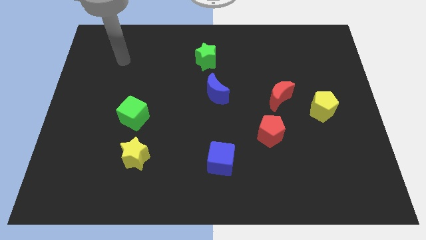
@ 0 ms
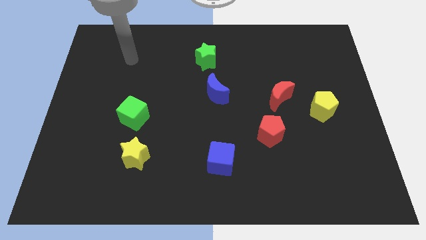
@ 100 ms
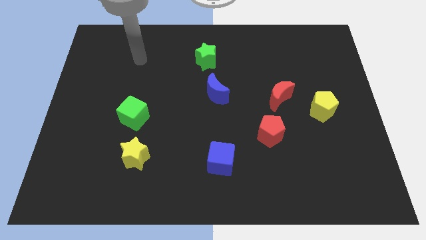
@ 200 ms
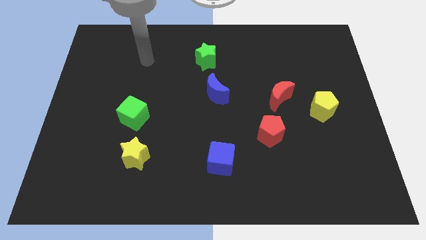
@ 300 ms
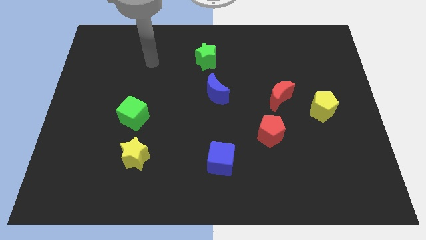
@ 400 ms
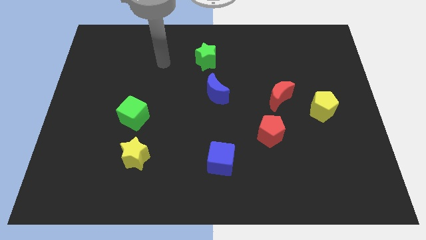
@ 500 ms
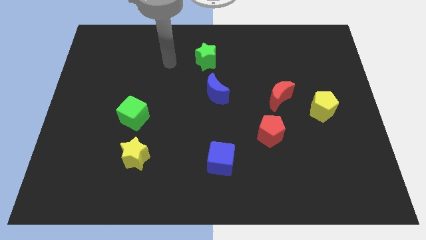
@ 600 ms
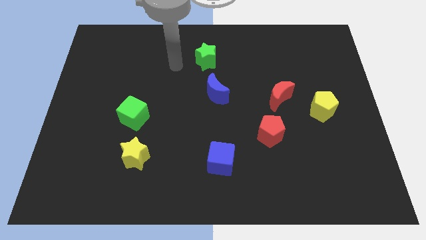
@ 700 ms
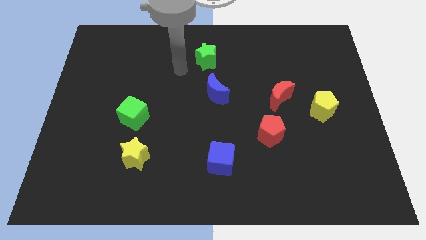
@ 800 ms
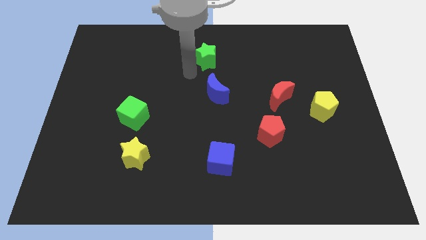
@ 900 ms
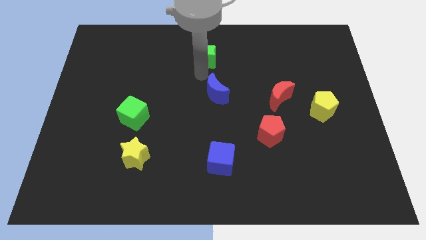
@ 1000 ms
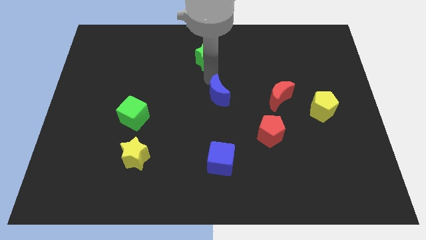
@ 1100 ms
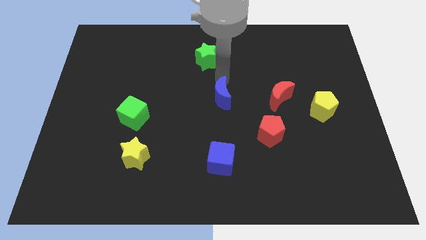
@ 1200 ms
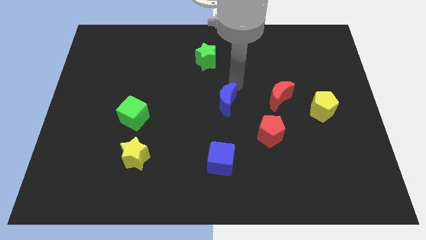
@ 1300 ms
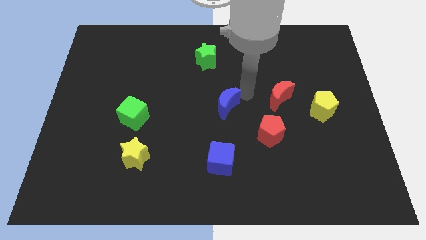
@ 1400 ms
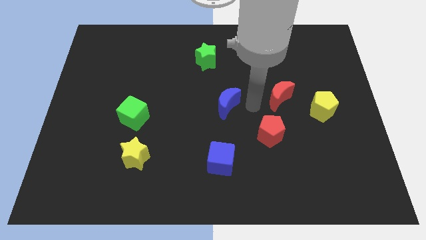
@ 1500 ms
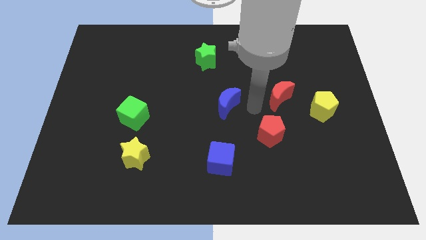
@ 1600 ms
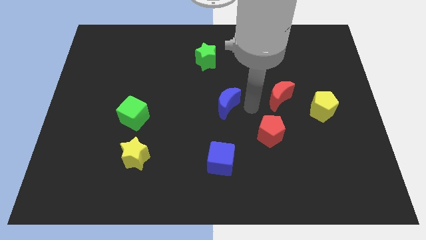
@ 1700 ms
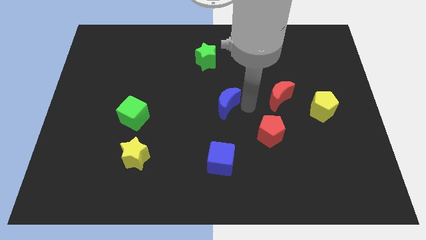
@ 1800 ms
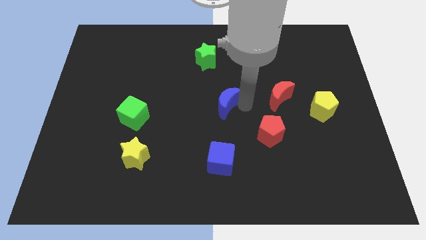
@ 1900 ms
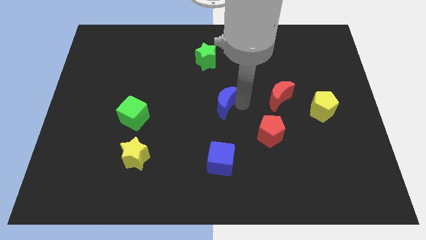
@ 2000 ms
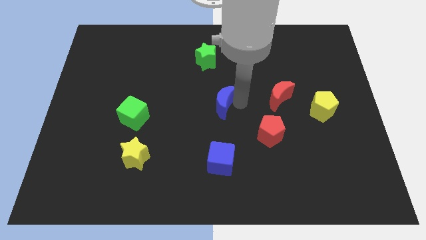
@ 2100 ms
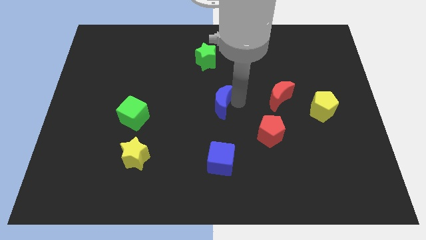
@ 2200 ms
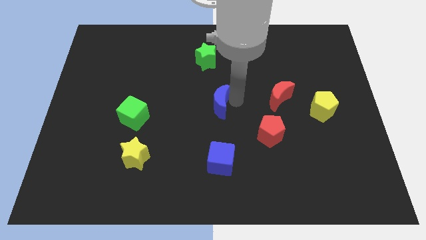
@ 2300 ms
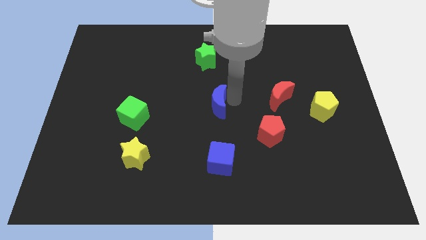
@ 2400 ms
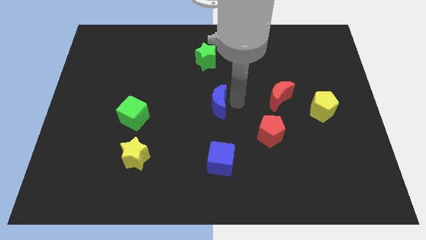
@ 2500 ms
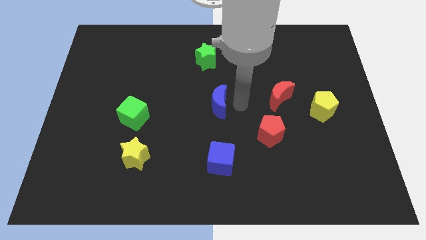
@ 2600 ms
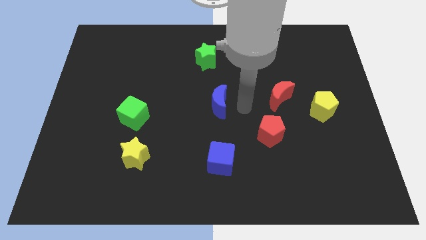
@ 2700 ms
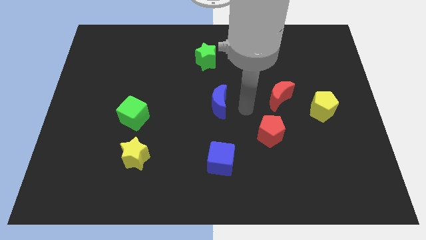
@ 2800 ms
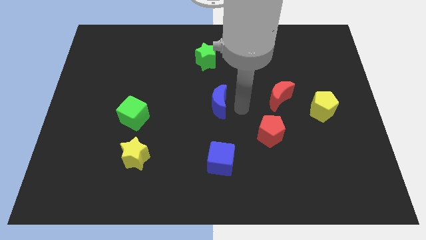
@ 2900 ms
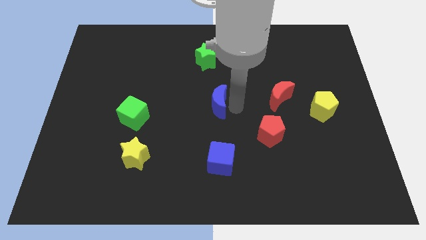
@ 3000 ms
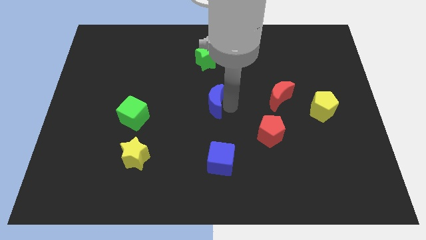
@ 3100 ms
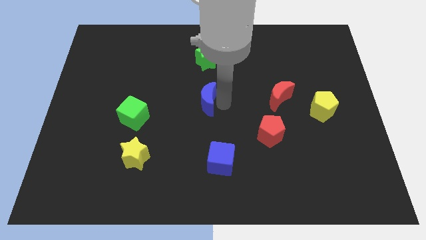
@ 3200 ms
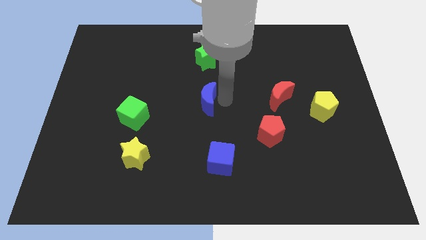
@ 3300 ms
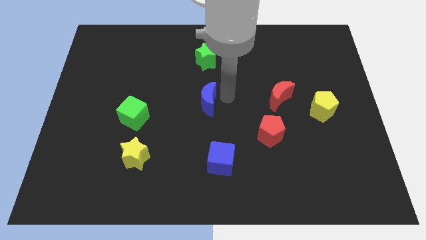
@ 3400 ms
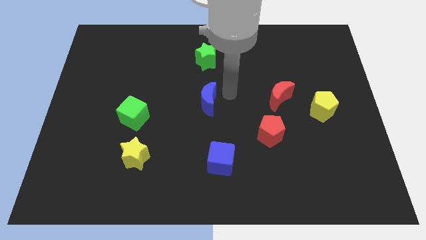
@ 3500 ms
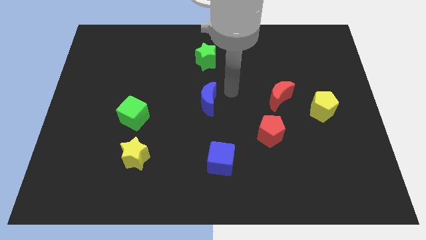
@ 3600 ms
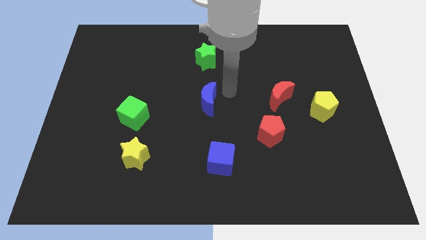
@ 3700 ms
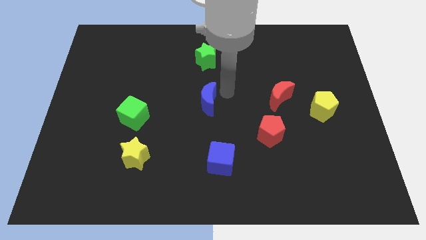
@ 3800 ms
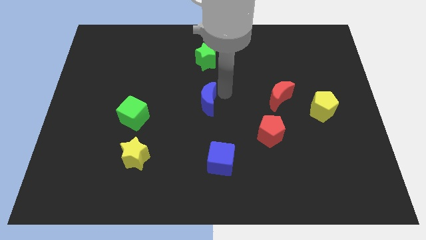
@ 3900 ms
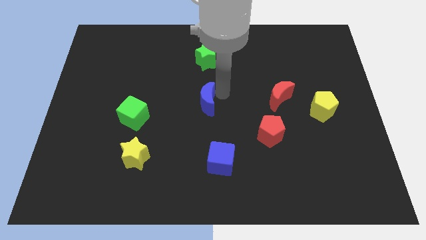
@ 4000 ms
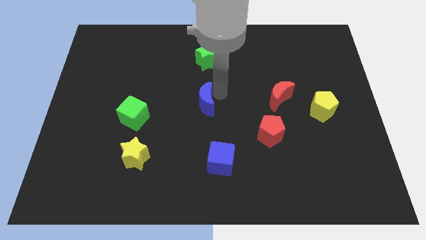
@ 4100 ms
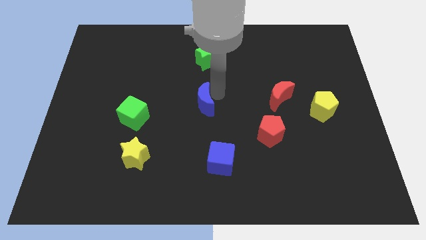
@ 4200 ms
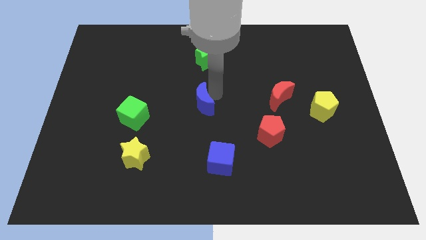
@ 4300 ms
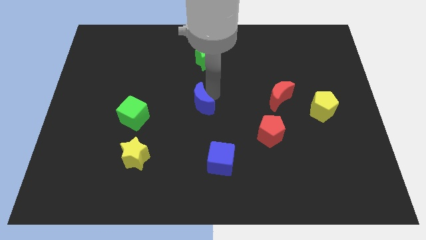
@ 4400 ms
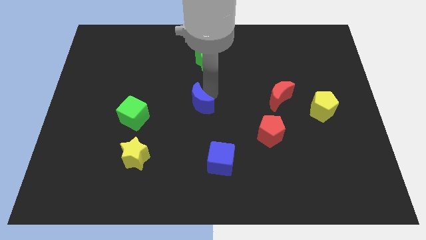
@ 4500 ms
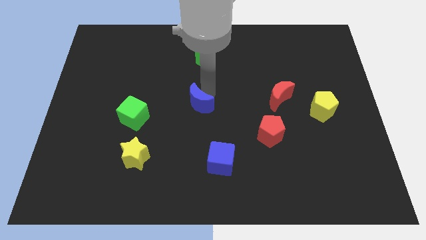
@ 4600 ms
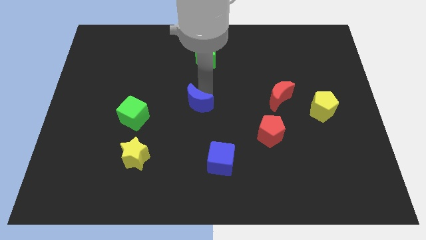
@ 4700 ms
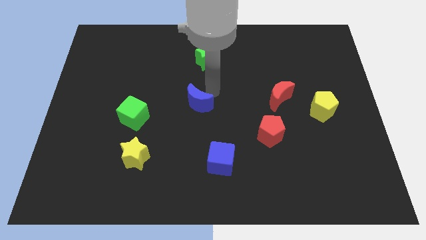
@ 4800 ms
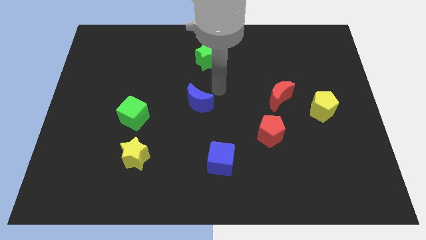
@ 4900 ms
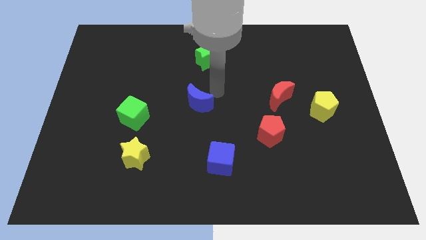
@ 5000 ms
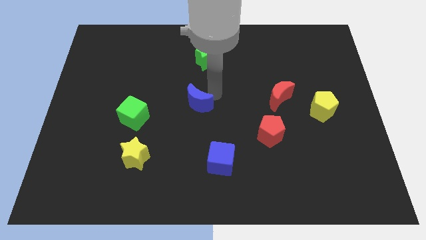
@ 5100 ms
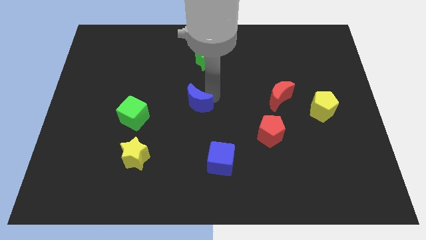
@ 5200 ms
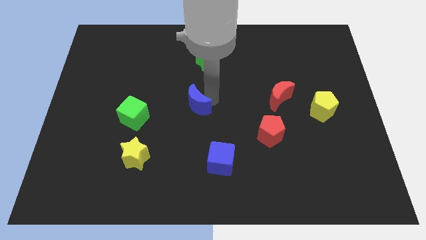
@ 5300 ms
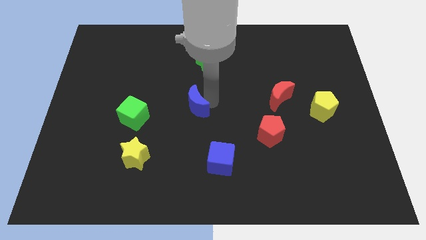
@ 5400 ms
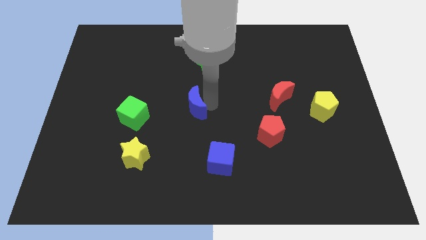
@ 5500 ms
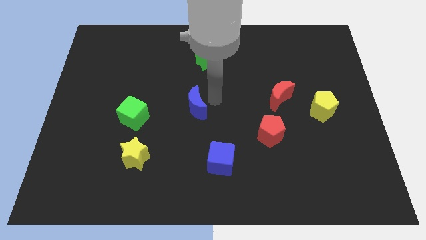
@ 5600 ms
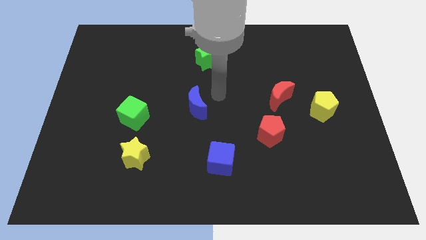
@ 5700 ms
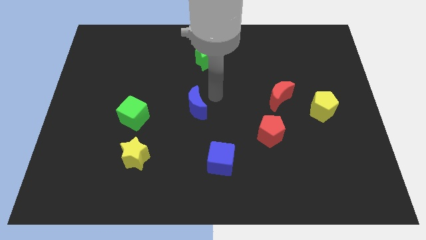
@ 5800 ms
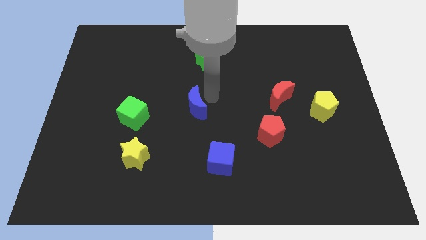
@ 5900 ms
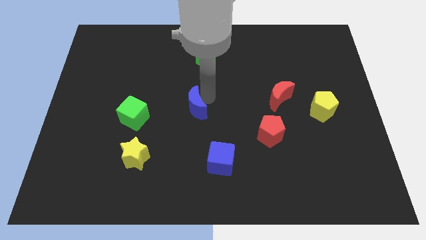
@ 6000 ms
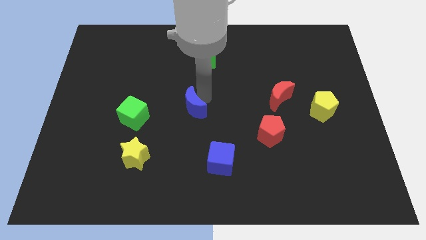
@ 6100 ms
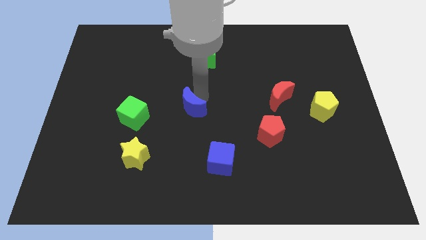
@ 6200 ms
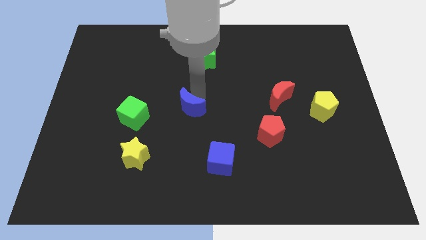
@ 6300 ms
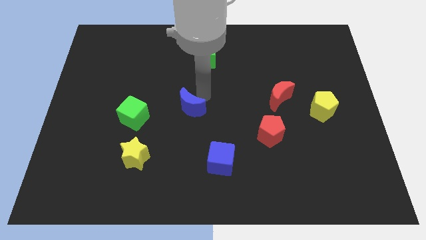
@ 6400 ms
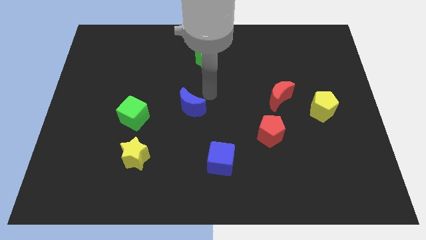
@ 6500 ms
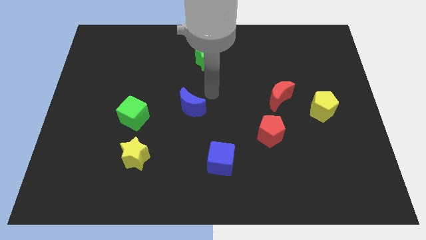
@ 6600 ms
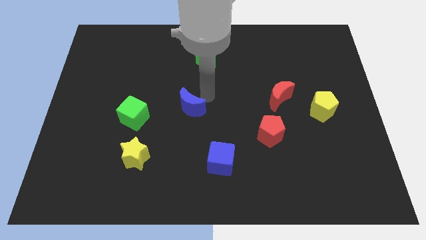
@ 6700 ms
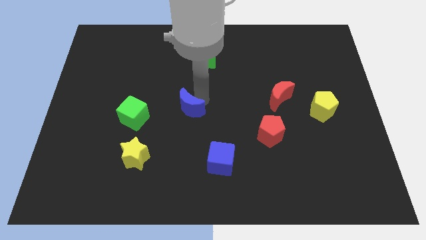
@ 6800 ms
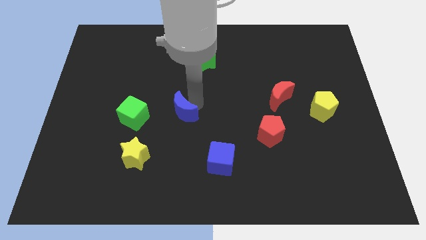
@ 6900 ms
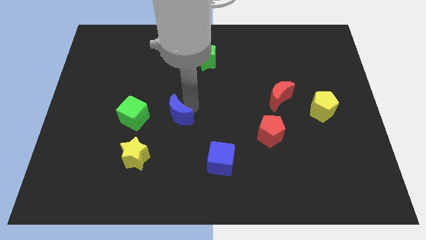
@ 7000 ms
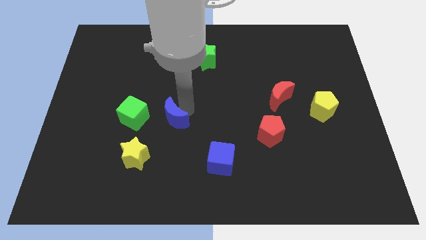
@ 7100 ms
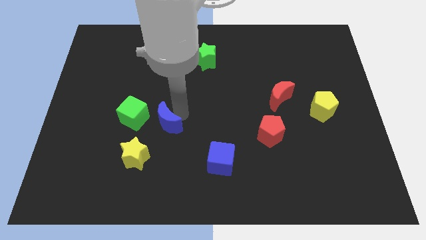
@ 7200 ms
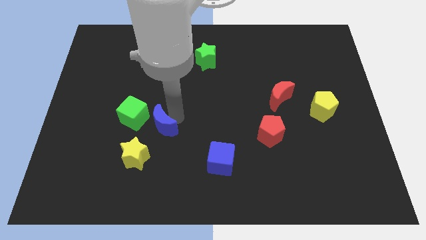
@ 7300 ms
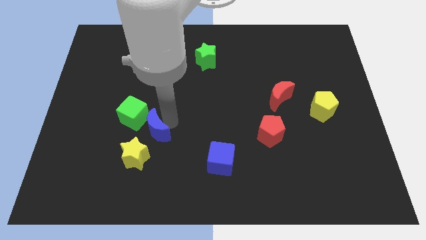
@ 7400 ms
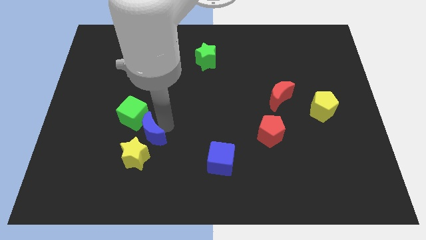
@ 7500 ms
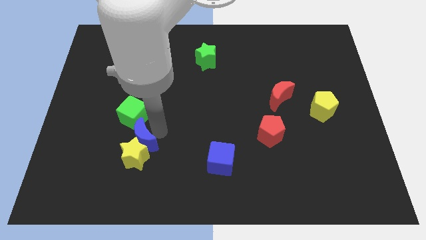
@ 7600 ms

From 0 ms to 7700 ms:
move the blue moon downwards and then left

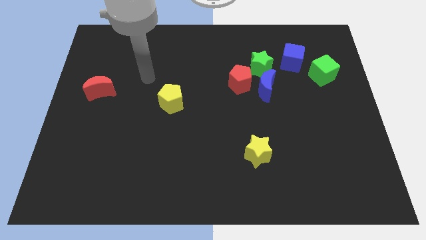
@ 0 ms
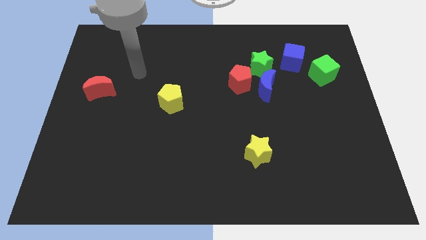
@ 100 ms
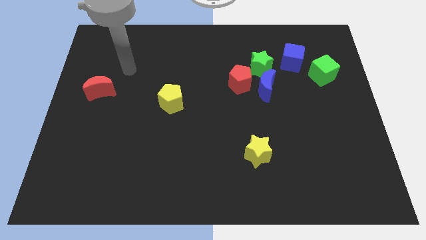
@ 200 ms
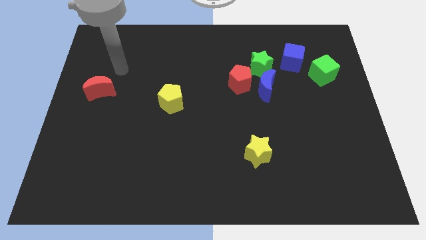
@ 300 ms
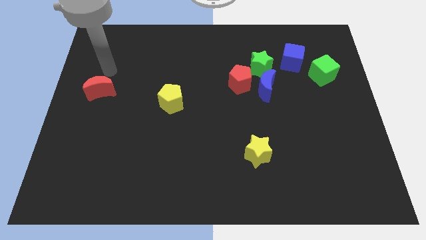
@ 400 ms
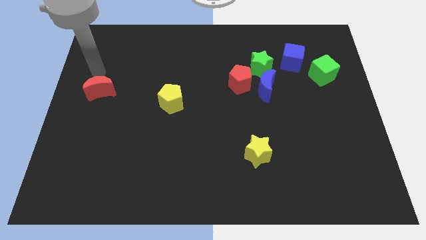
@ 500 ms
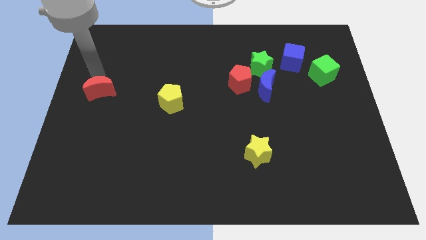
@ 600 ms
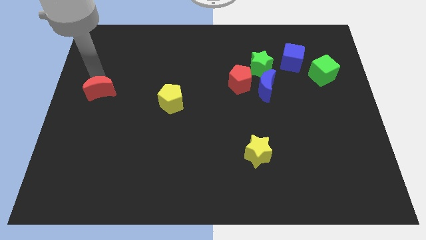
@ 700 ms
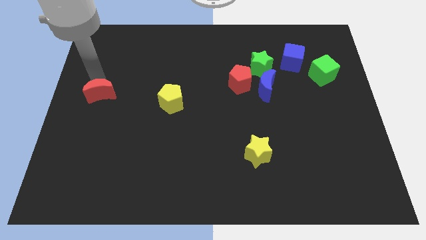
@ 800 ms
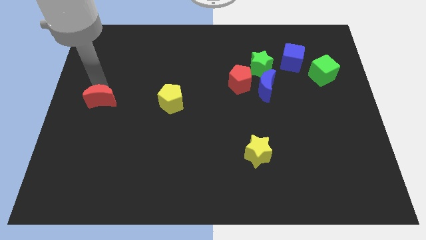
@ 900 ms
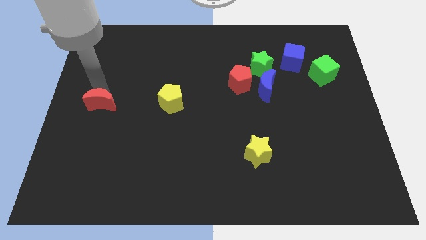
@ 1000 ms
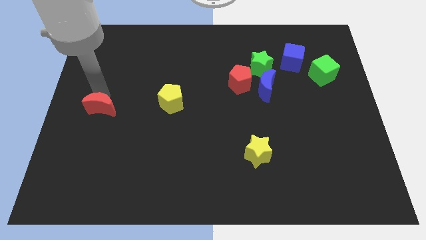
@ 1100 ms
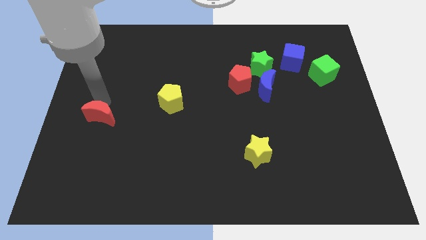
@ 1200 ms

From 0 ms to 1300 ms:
push the red moon a bit down
